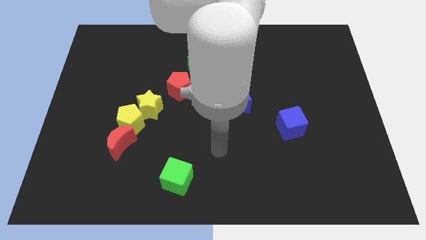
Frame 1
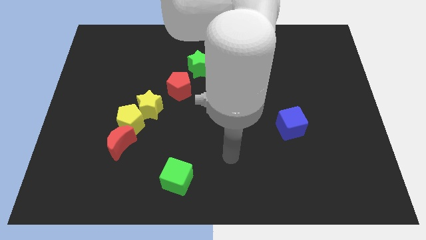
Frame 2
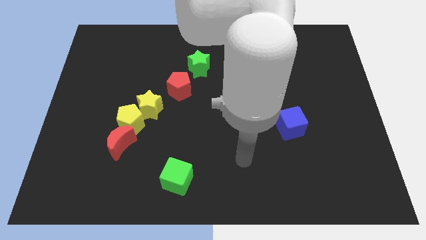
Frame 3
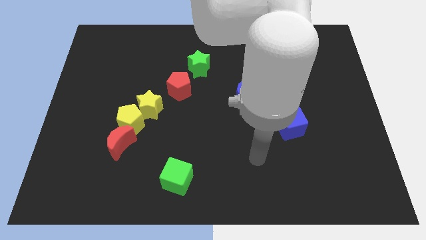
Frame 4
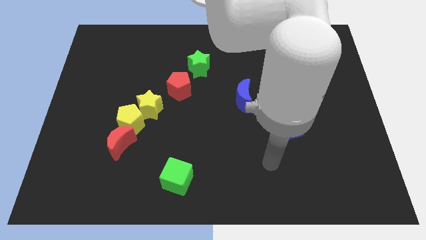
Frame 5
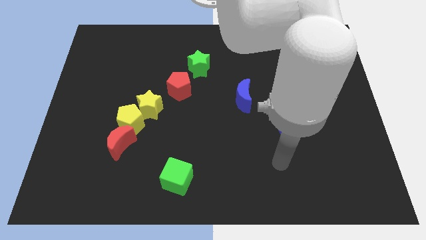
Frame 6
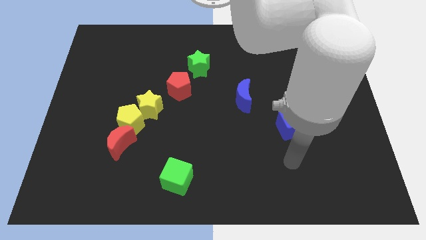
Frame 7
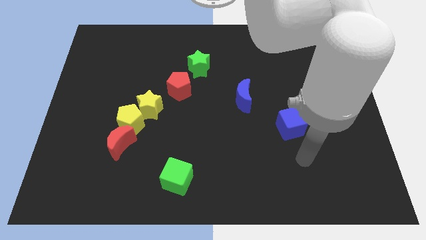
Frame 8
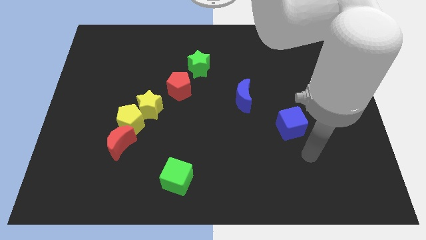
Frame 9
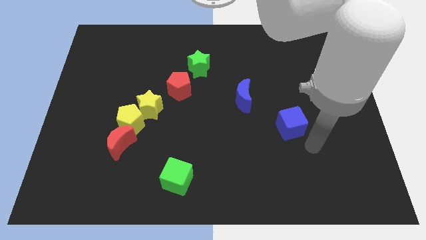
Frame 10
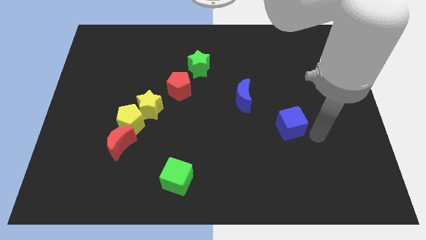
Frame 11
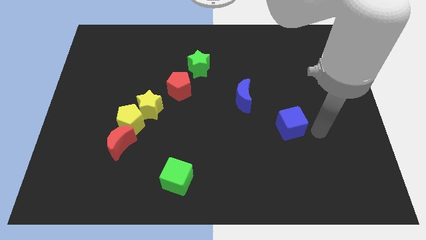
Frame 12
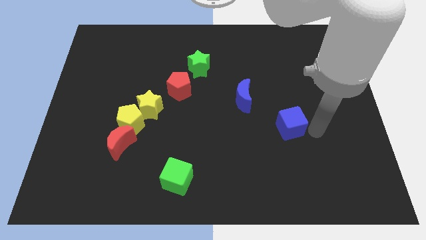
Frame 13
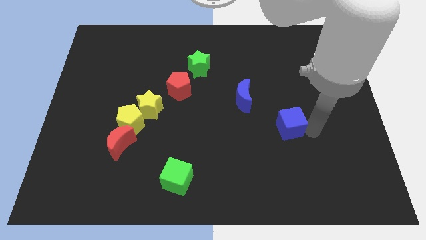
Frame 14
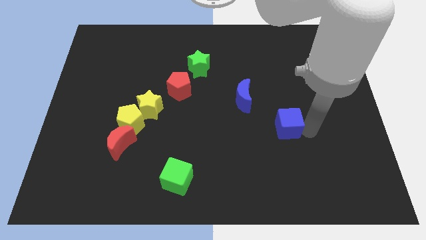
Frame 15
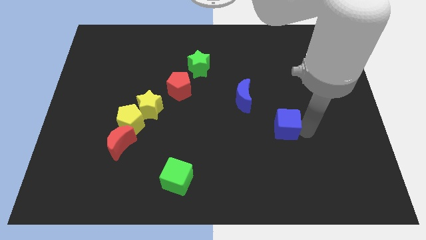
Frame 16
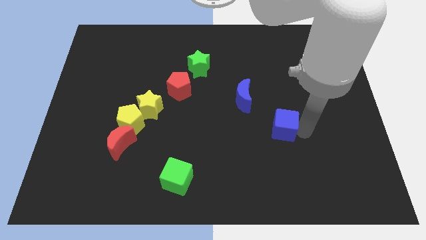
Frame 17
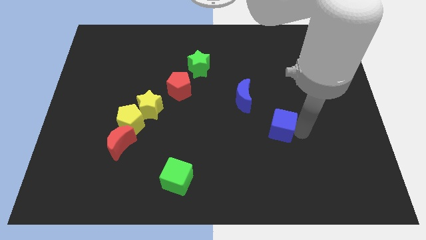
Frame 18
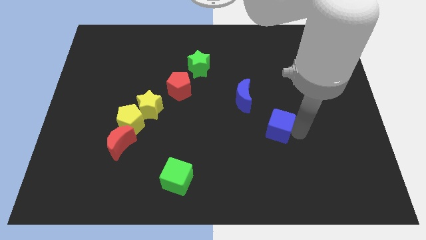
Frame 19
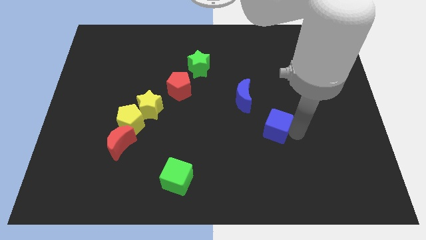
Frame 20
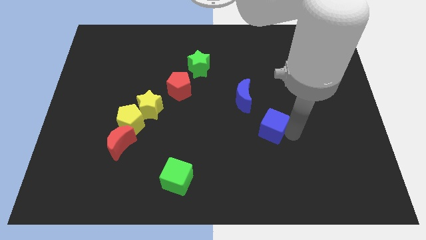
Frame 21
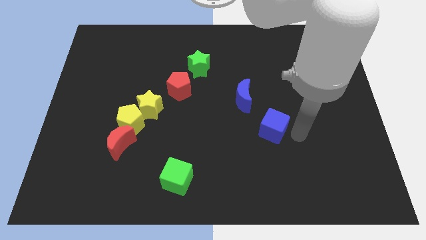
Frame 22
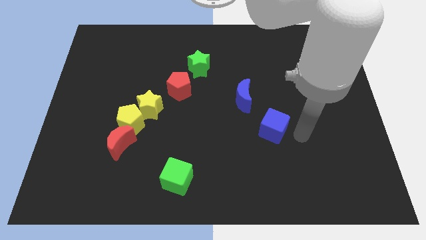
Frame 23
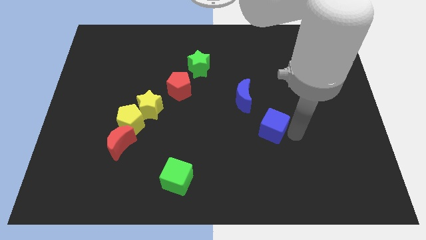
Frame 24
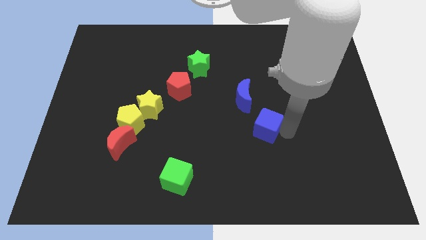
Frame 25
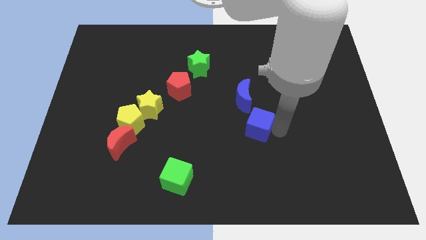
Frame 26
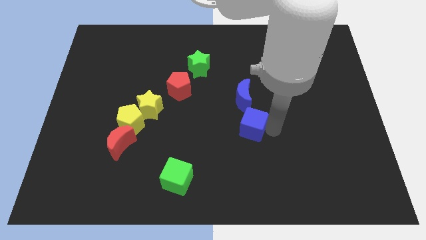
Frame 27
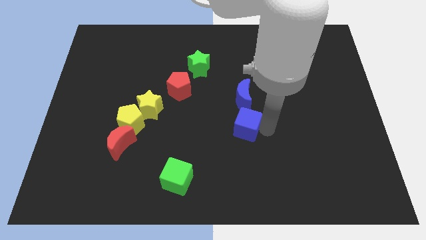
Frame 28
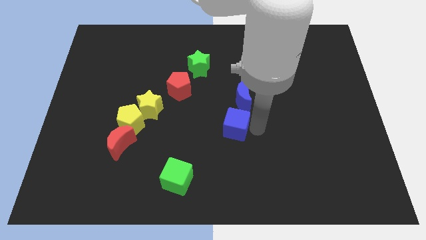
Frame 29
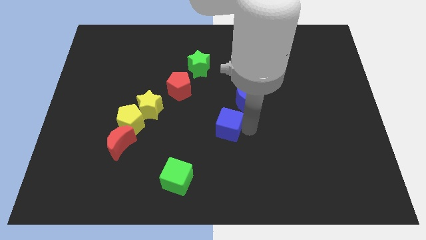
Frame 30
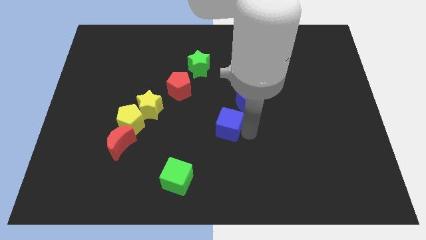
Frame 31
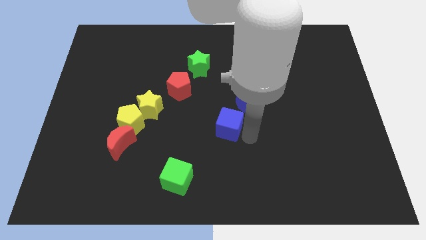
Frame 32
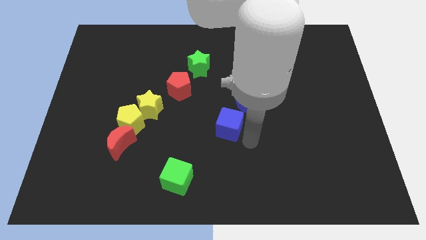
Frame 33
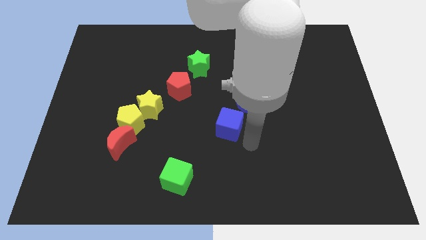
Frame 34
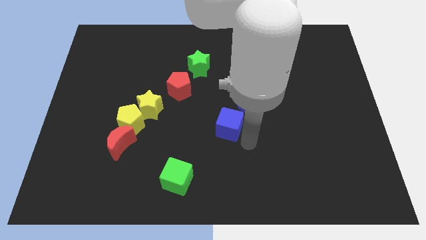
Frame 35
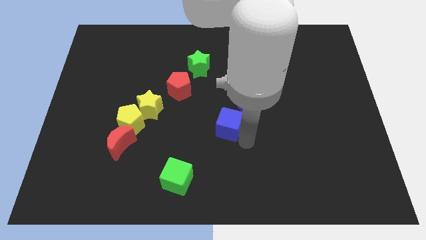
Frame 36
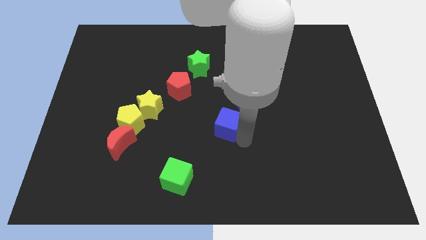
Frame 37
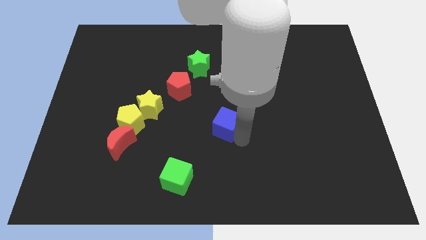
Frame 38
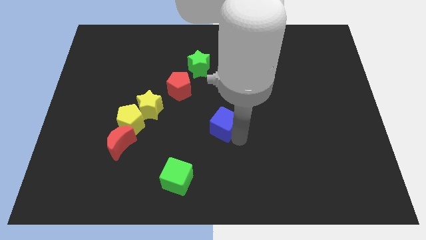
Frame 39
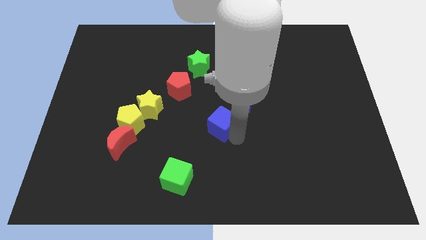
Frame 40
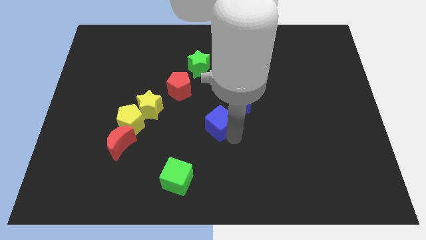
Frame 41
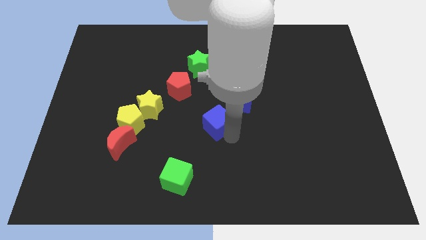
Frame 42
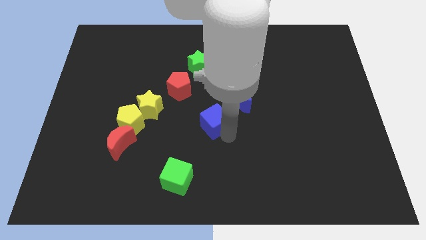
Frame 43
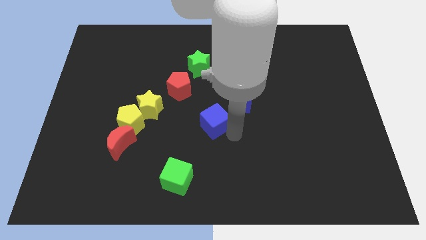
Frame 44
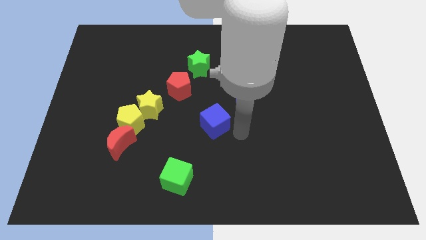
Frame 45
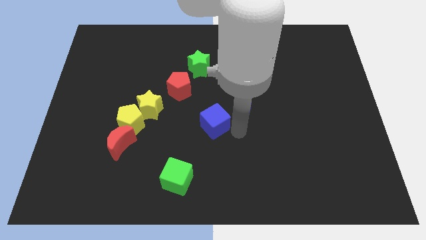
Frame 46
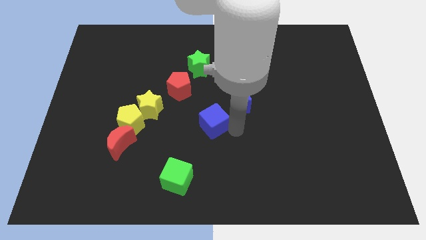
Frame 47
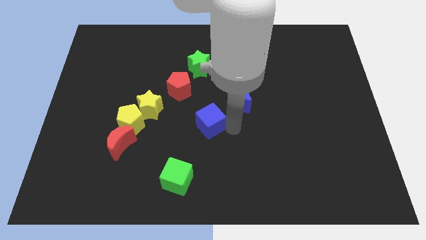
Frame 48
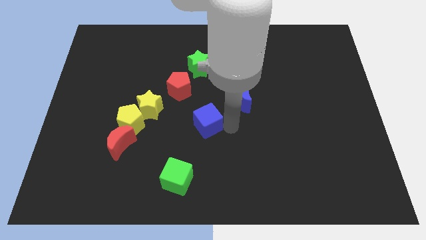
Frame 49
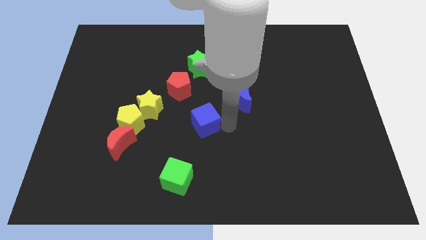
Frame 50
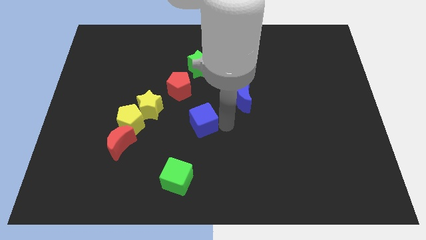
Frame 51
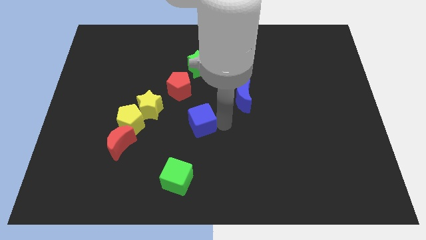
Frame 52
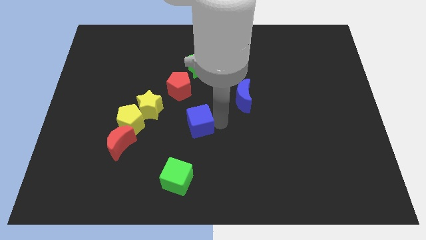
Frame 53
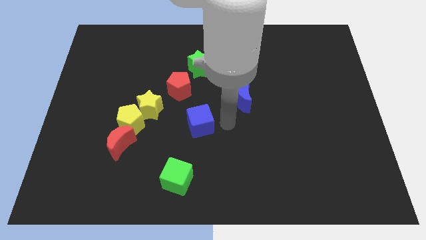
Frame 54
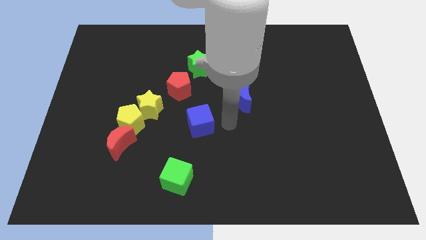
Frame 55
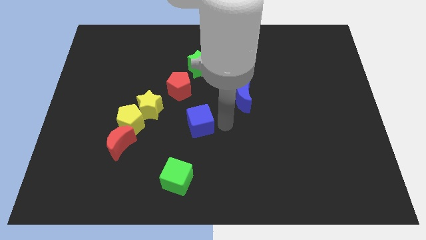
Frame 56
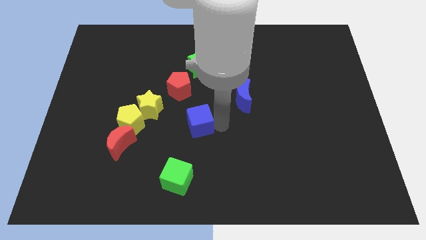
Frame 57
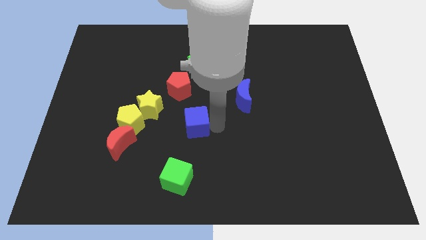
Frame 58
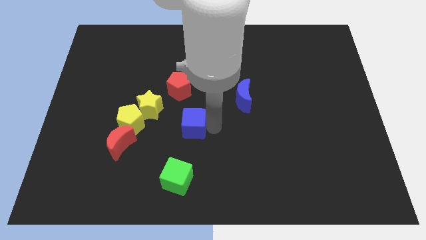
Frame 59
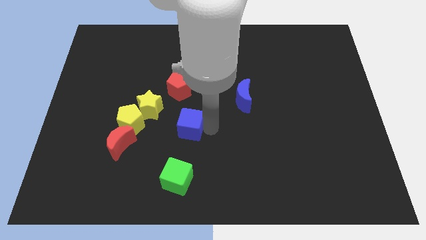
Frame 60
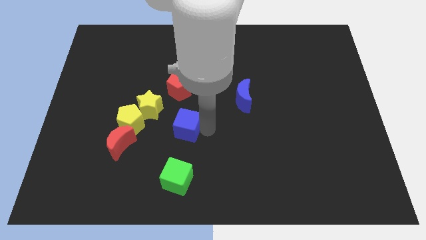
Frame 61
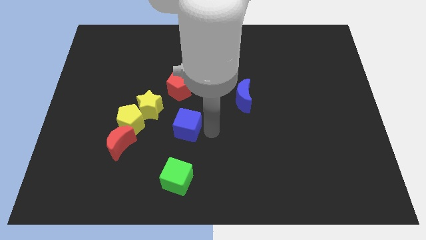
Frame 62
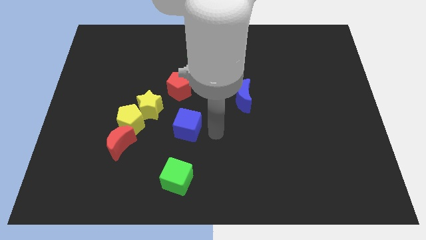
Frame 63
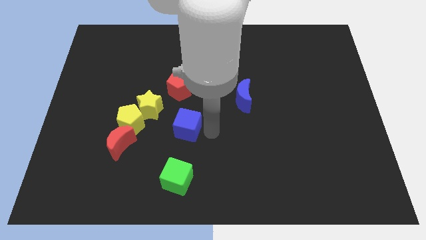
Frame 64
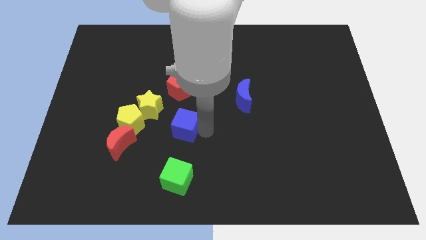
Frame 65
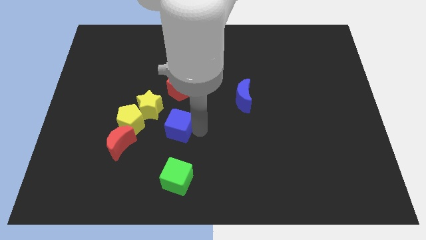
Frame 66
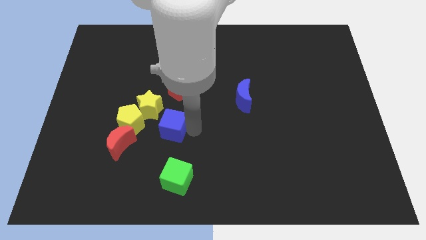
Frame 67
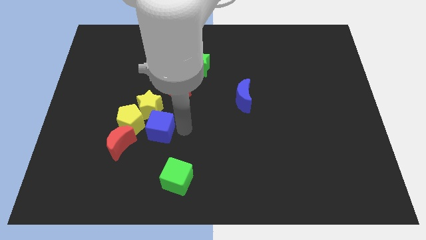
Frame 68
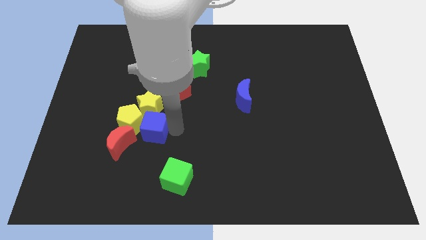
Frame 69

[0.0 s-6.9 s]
slide the blue cube close to the yellow pentagon

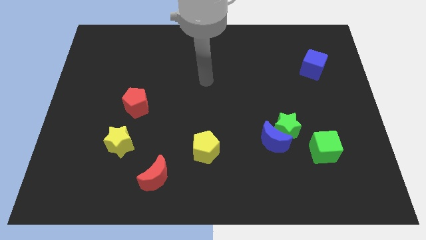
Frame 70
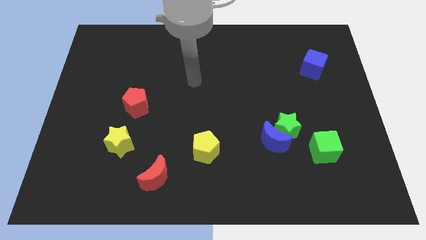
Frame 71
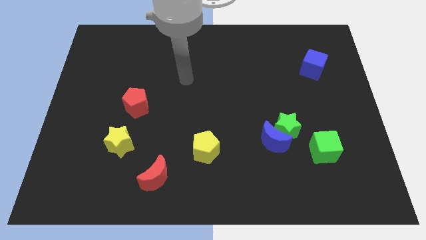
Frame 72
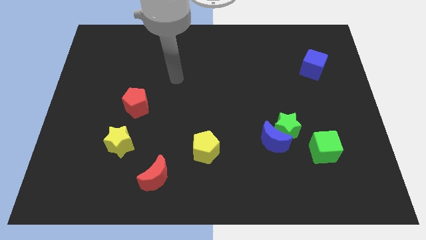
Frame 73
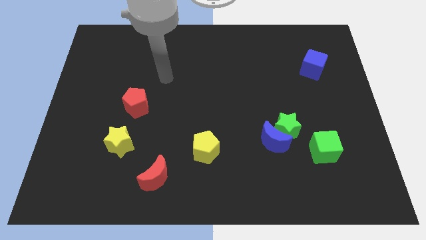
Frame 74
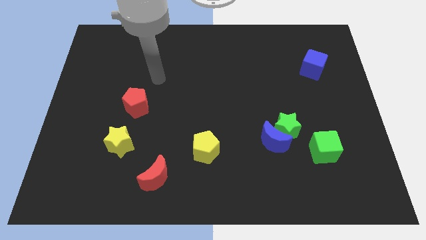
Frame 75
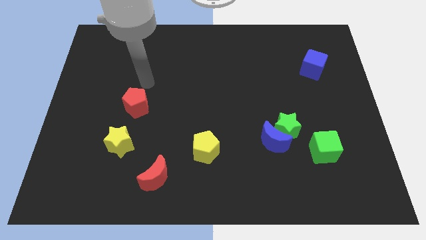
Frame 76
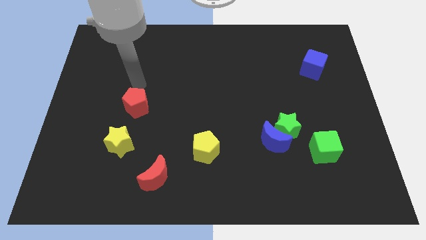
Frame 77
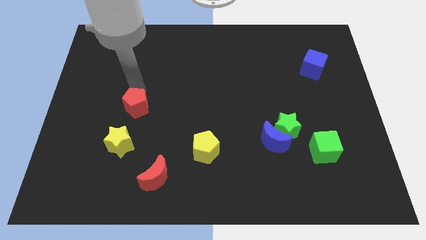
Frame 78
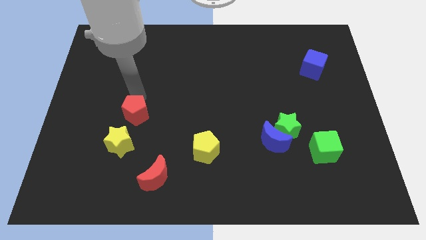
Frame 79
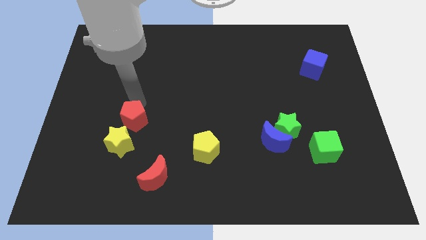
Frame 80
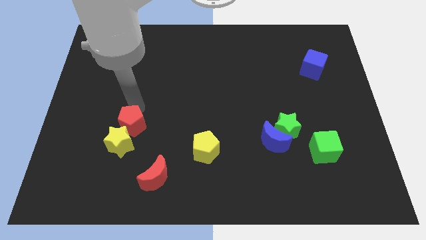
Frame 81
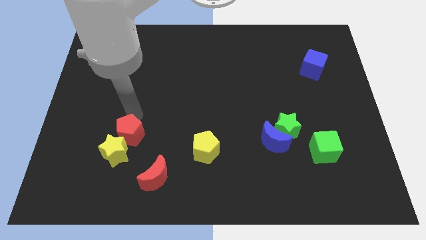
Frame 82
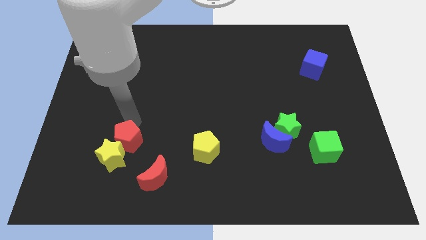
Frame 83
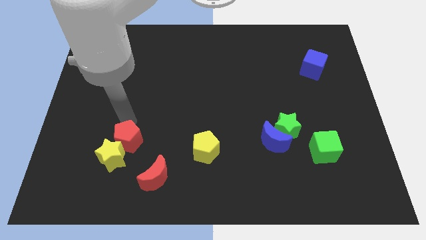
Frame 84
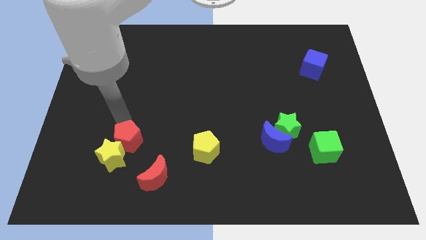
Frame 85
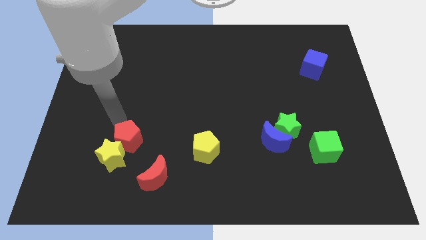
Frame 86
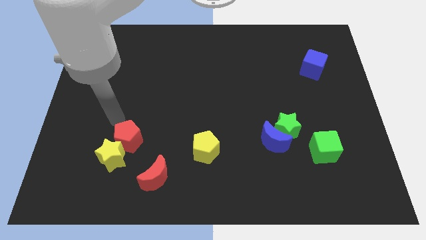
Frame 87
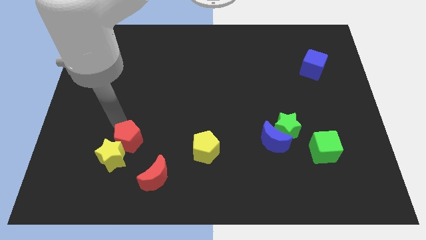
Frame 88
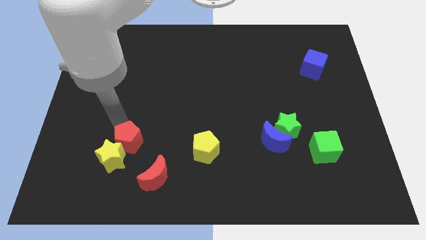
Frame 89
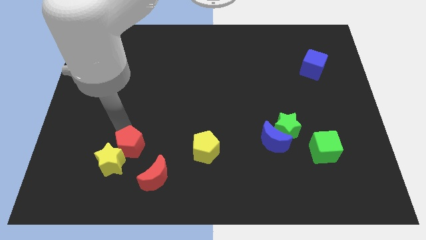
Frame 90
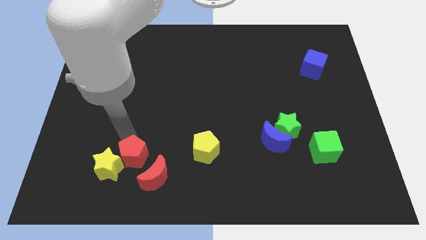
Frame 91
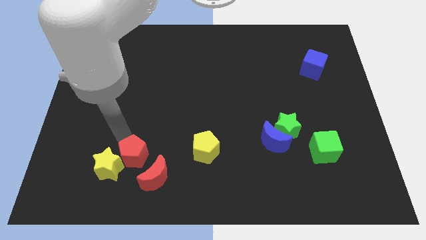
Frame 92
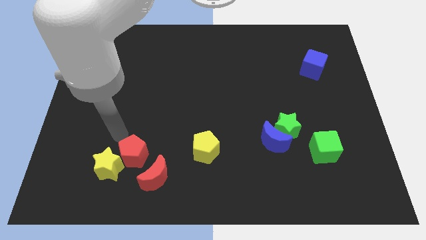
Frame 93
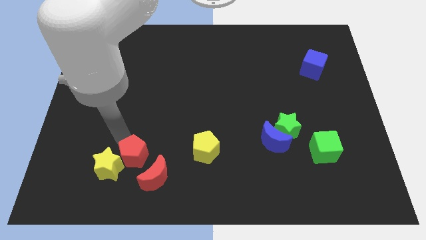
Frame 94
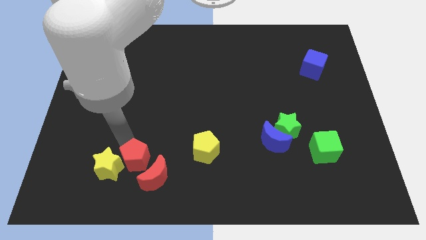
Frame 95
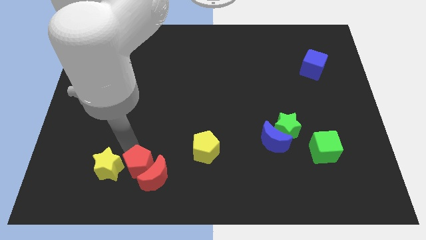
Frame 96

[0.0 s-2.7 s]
move the red pentagon close to the red moon
